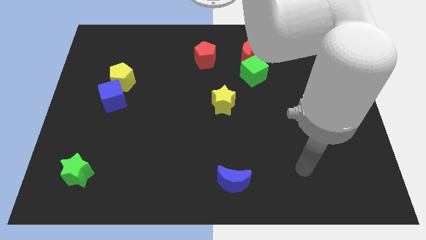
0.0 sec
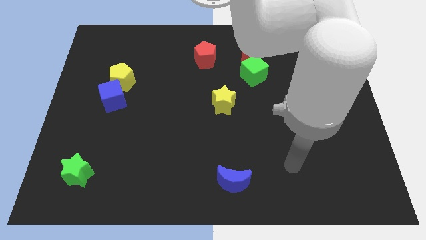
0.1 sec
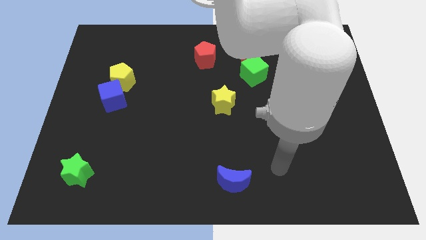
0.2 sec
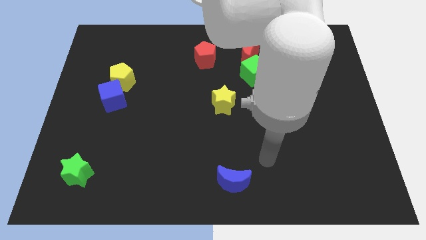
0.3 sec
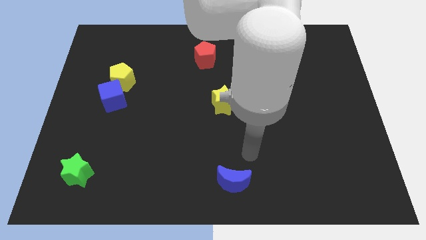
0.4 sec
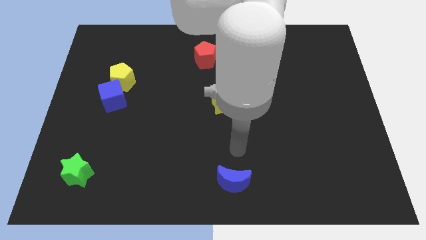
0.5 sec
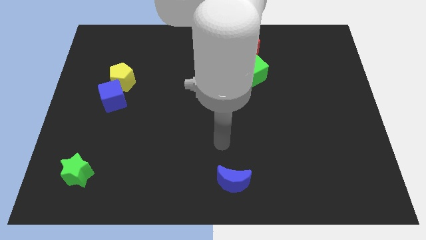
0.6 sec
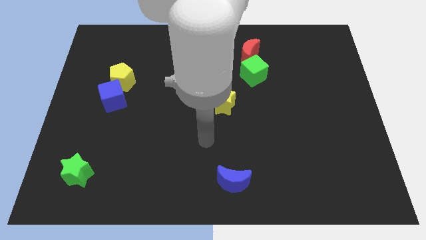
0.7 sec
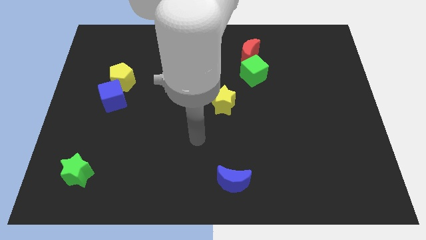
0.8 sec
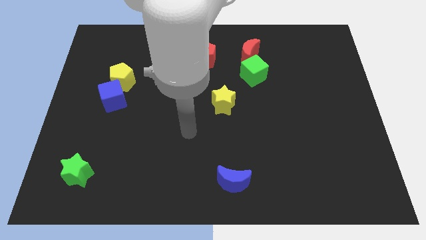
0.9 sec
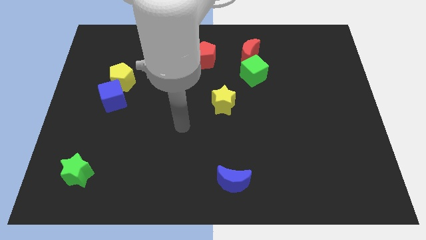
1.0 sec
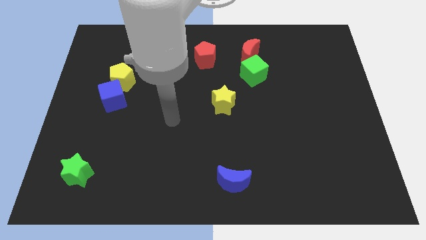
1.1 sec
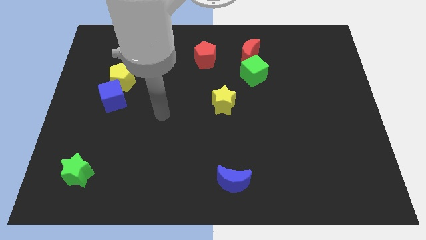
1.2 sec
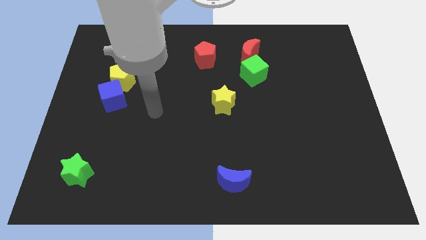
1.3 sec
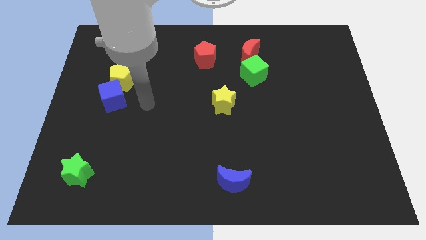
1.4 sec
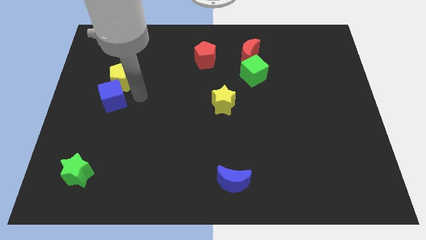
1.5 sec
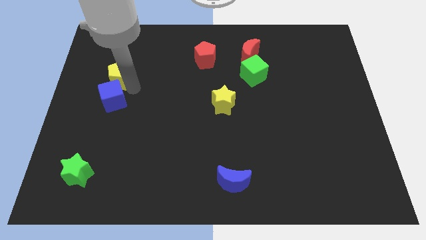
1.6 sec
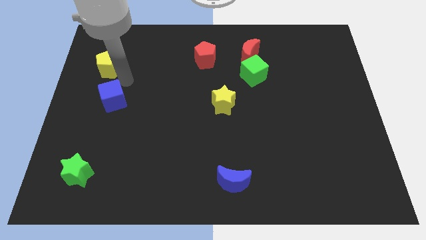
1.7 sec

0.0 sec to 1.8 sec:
pull the blue cube apart from the yellow pentagon

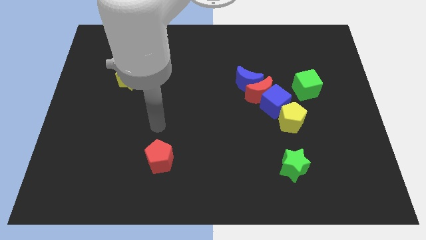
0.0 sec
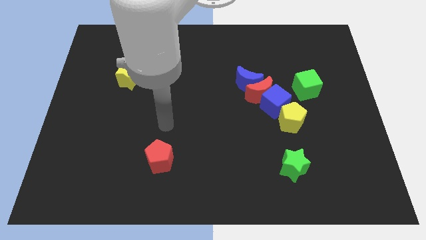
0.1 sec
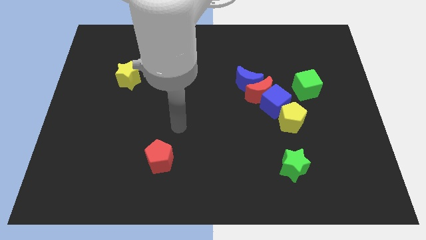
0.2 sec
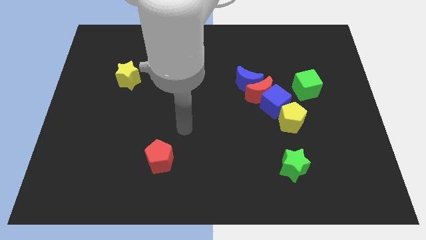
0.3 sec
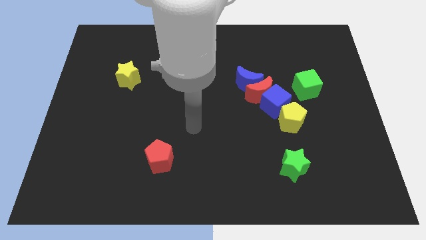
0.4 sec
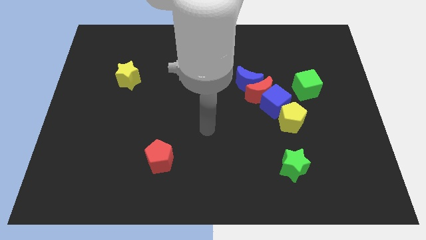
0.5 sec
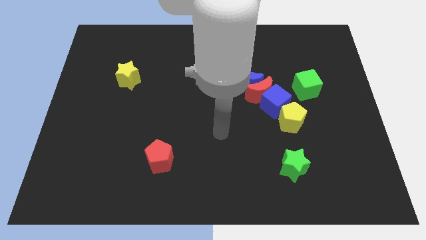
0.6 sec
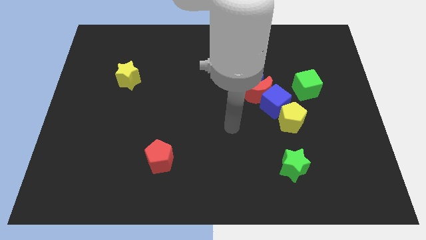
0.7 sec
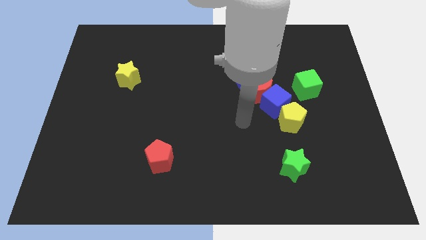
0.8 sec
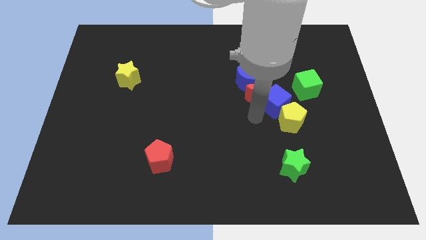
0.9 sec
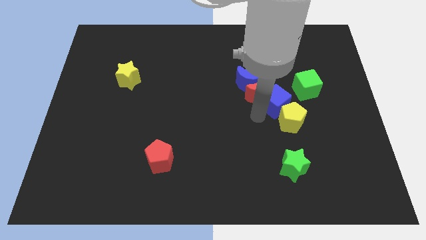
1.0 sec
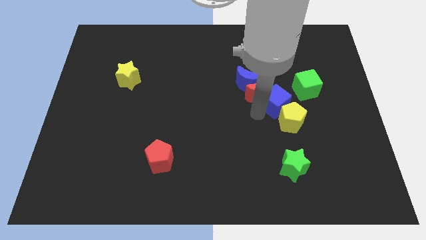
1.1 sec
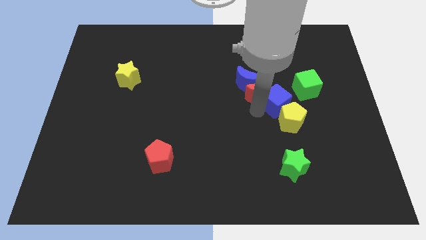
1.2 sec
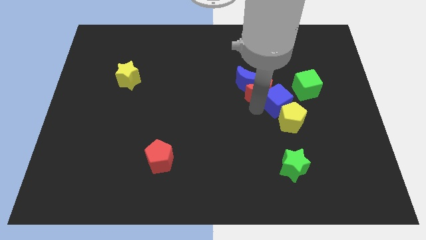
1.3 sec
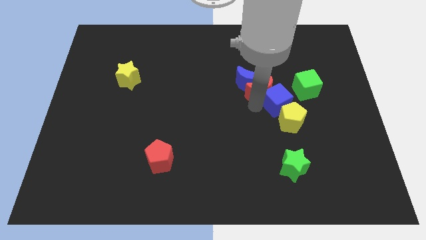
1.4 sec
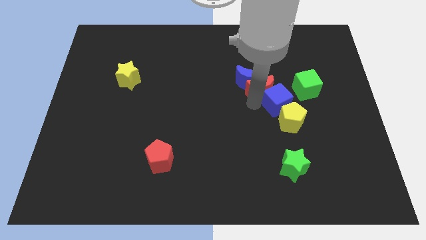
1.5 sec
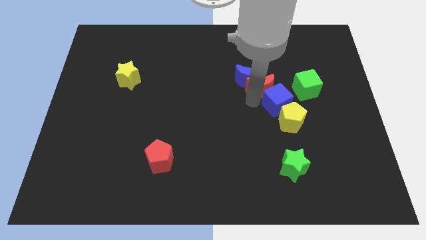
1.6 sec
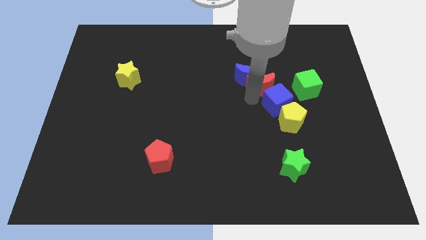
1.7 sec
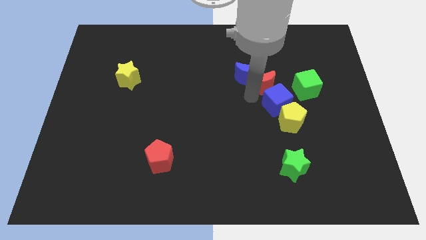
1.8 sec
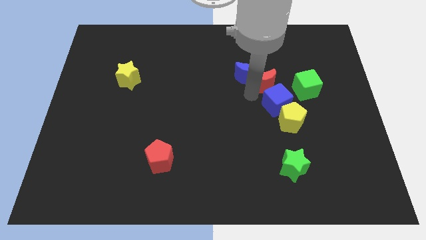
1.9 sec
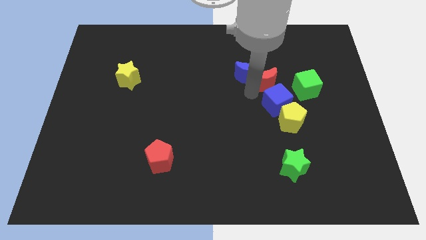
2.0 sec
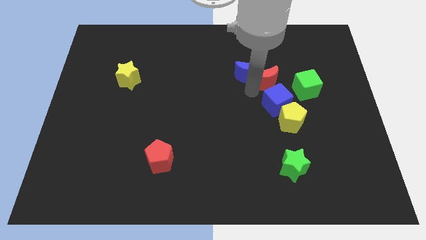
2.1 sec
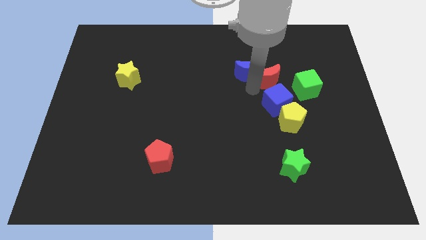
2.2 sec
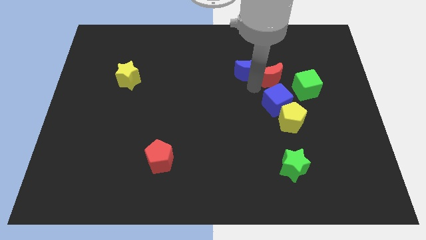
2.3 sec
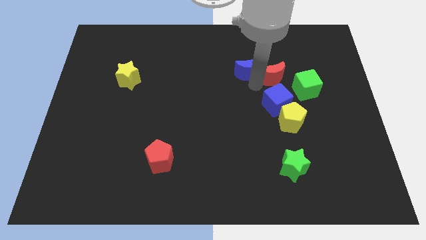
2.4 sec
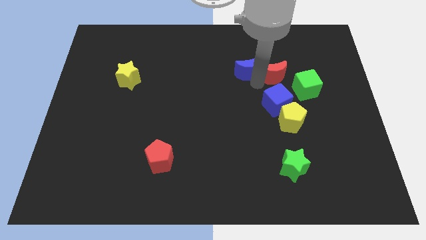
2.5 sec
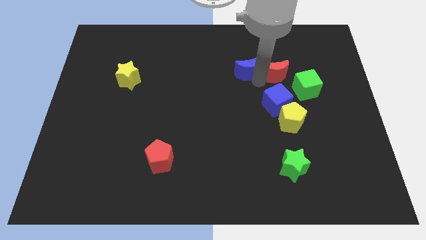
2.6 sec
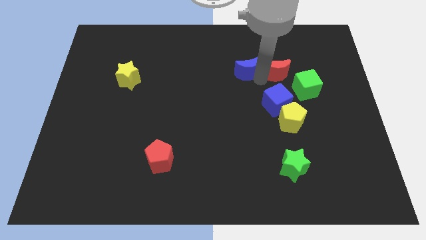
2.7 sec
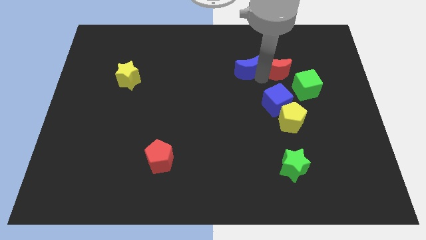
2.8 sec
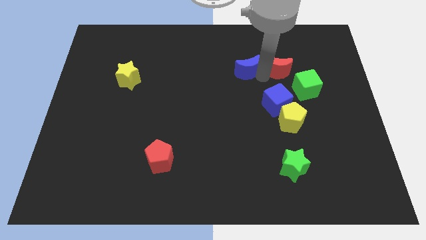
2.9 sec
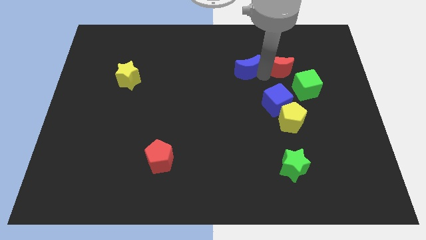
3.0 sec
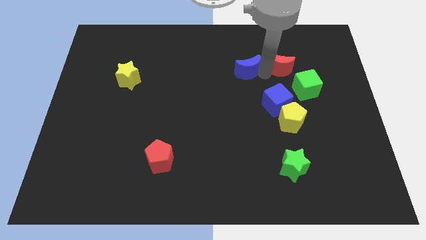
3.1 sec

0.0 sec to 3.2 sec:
move the red moon away from the group of blocks

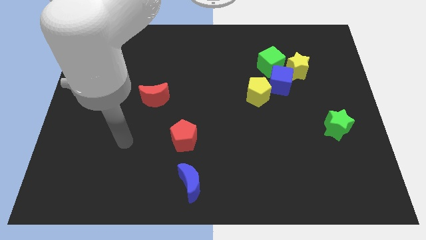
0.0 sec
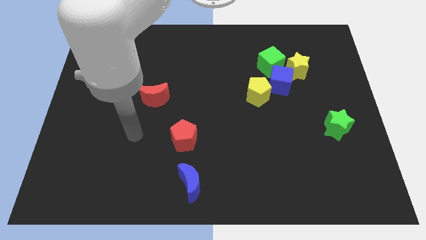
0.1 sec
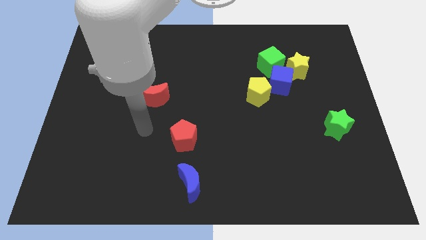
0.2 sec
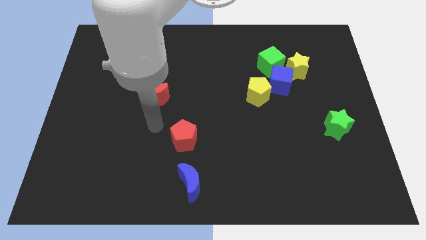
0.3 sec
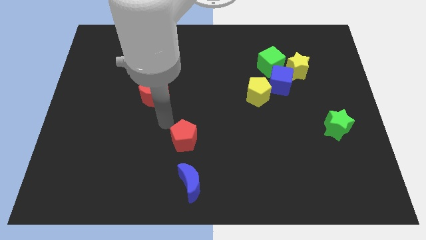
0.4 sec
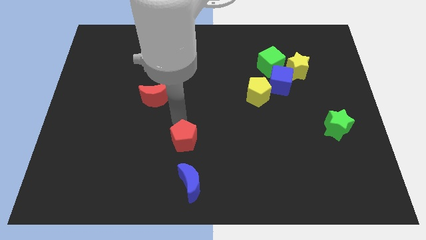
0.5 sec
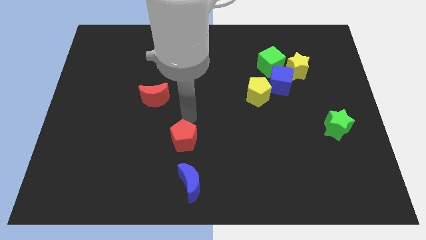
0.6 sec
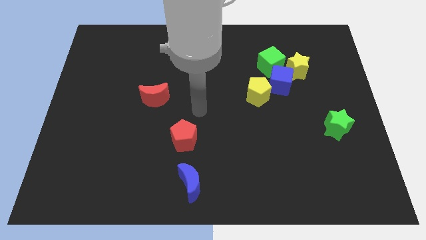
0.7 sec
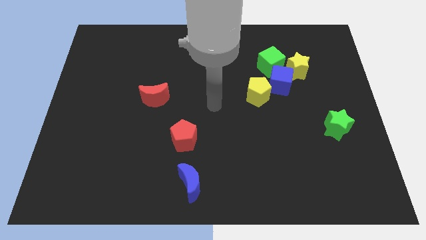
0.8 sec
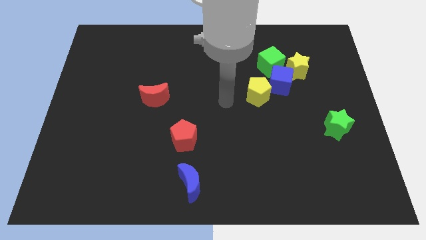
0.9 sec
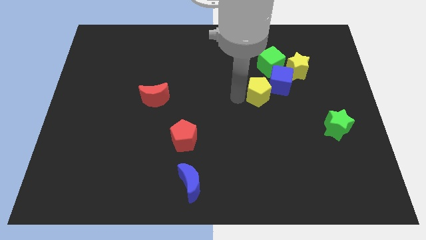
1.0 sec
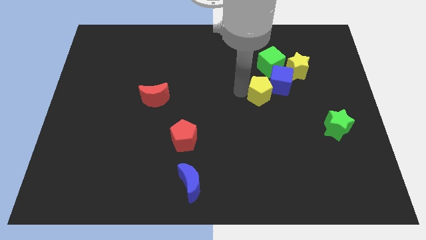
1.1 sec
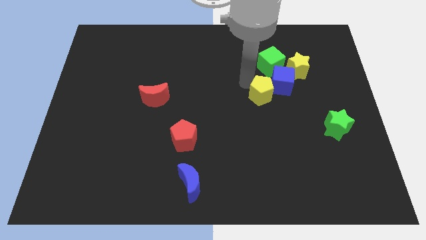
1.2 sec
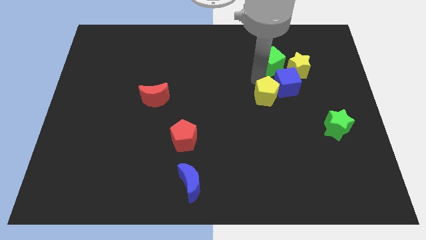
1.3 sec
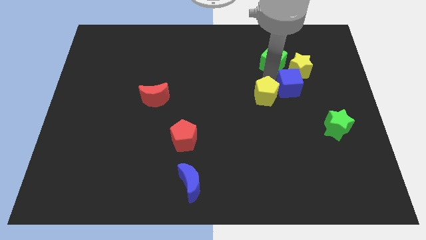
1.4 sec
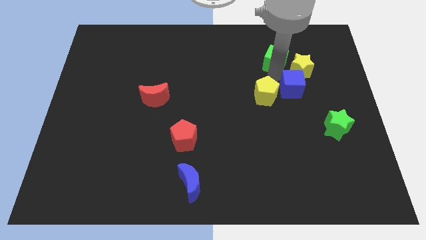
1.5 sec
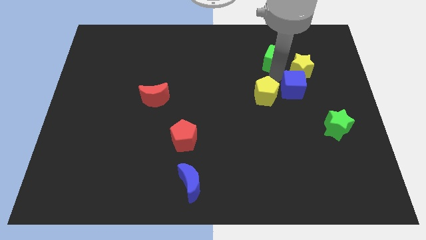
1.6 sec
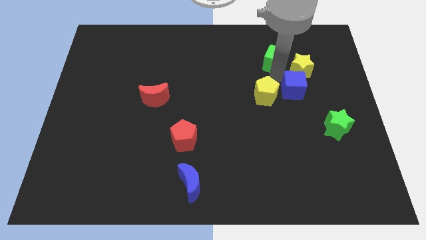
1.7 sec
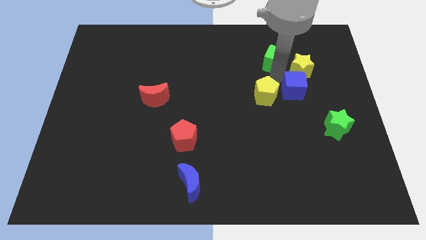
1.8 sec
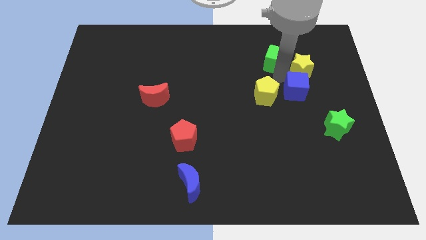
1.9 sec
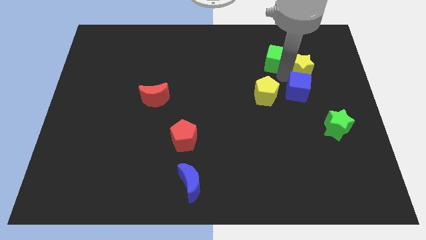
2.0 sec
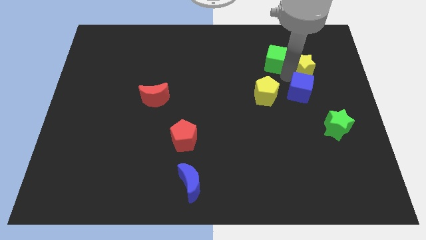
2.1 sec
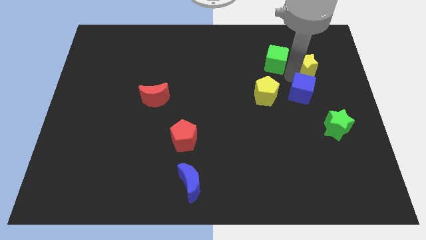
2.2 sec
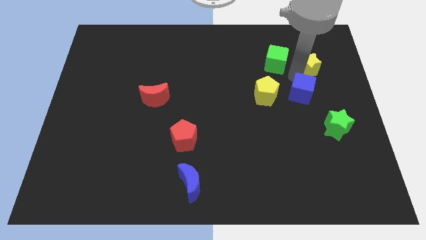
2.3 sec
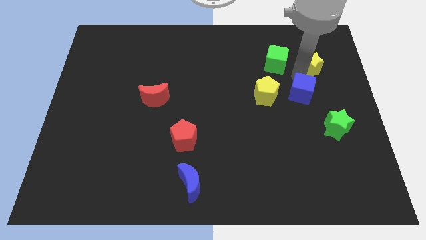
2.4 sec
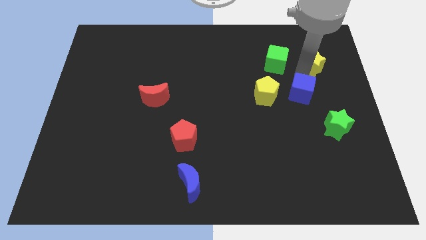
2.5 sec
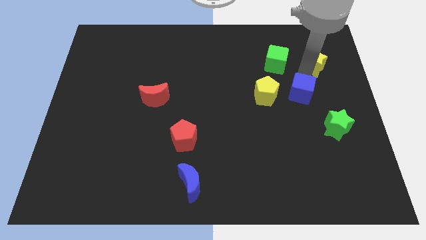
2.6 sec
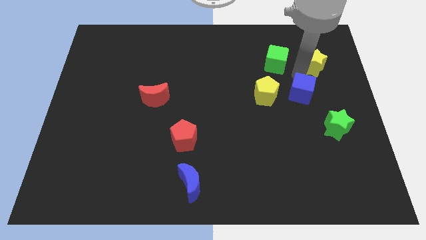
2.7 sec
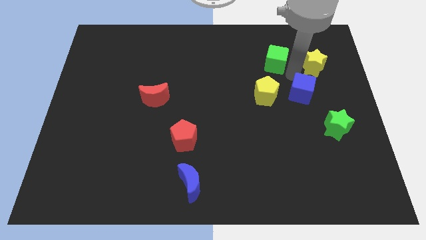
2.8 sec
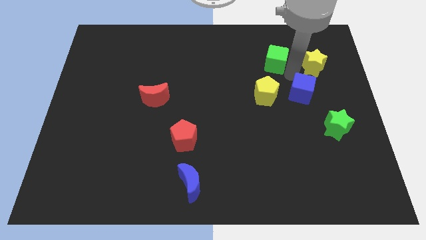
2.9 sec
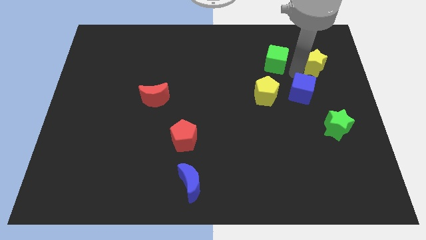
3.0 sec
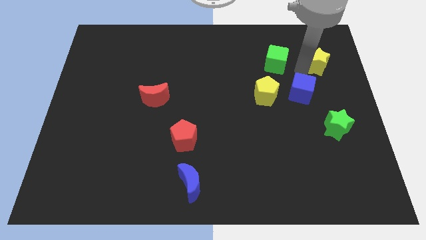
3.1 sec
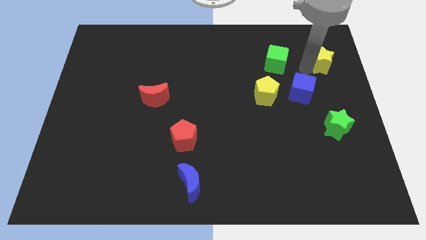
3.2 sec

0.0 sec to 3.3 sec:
move the yellow star away from the blue cube and green cube

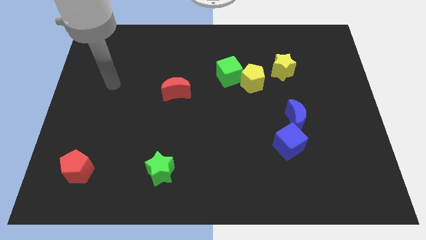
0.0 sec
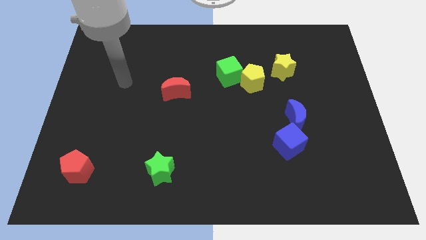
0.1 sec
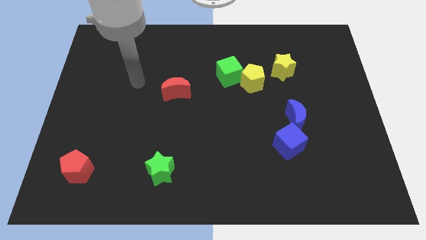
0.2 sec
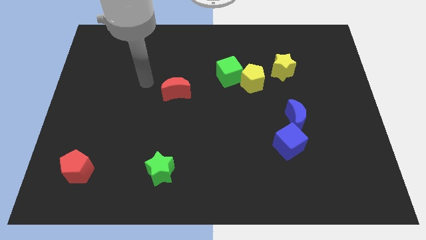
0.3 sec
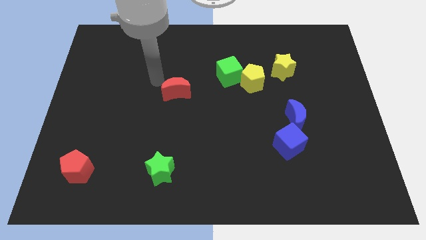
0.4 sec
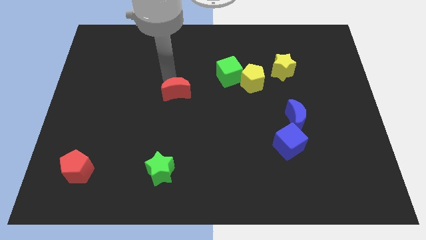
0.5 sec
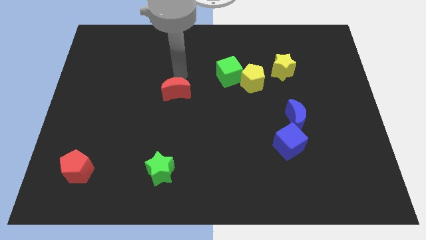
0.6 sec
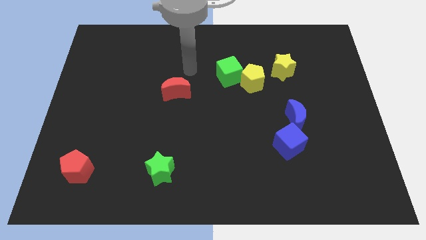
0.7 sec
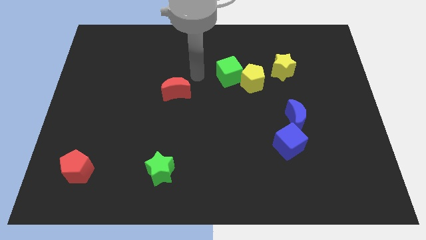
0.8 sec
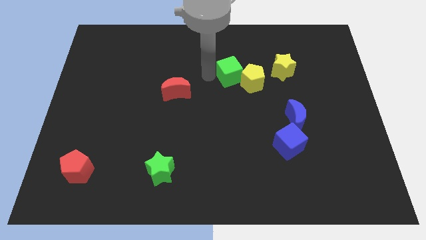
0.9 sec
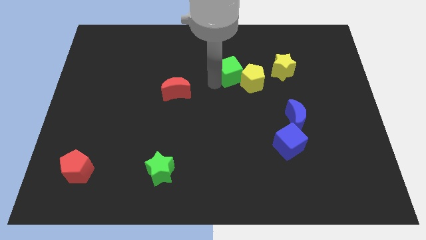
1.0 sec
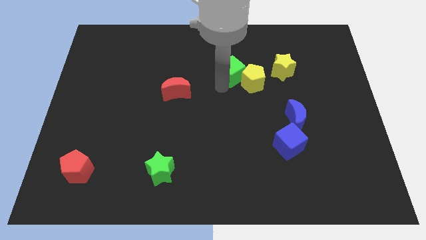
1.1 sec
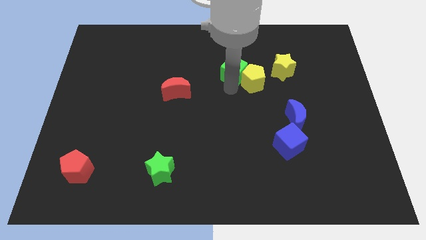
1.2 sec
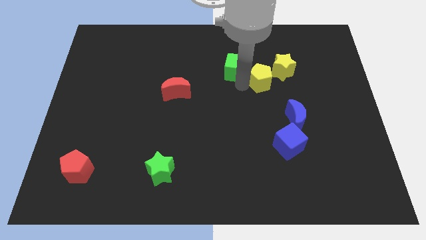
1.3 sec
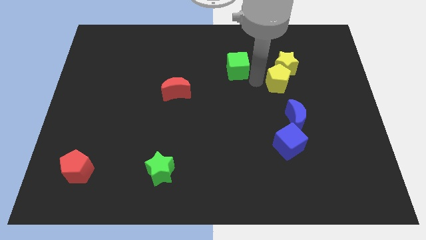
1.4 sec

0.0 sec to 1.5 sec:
move the green cube away from the yellow pentagon
